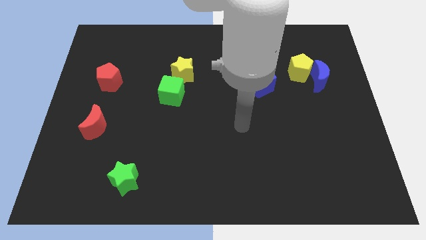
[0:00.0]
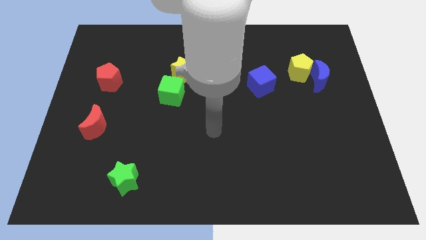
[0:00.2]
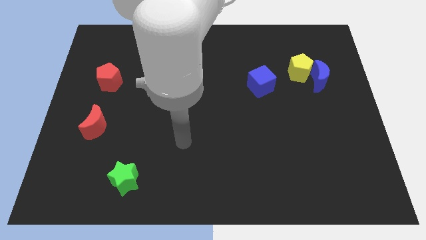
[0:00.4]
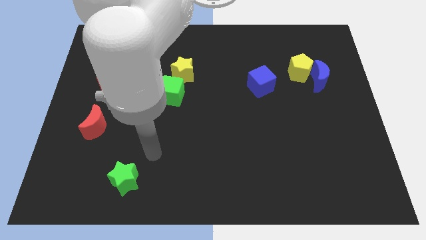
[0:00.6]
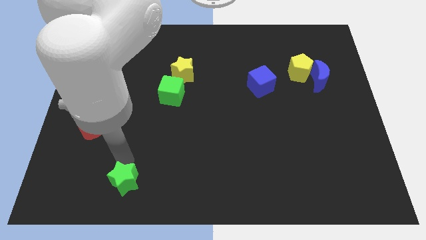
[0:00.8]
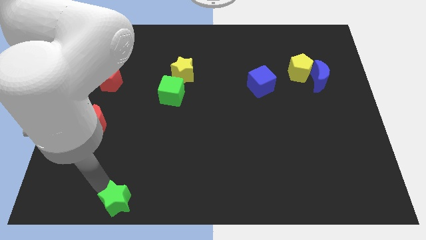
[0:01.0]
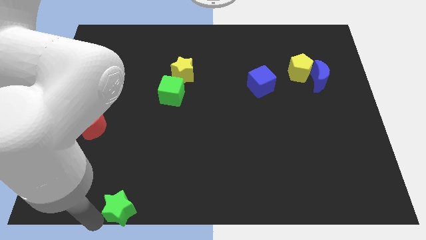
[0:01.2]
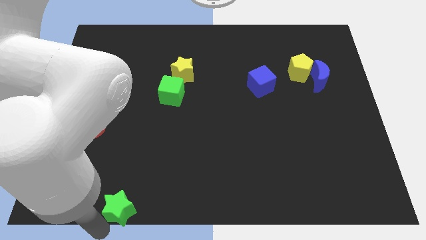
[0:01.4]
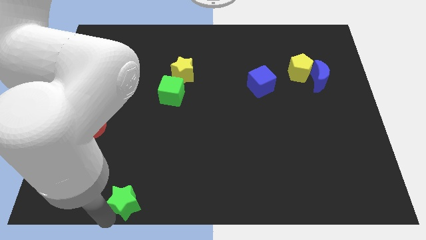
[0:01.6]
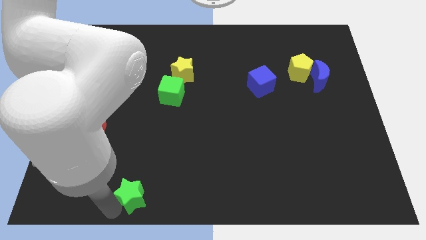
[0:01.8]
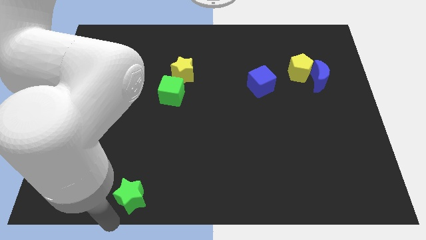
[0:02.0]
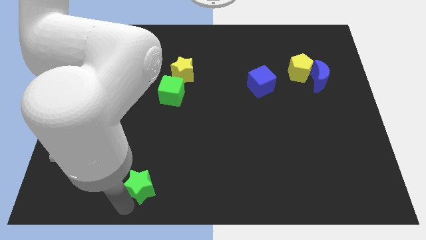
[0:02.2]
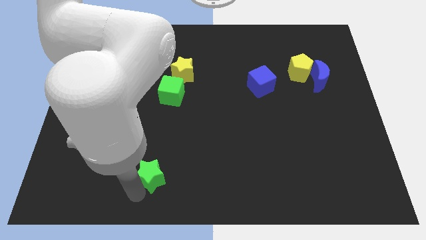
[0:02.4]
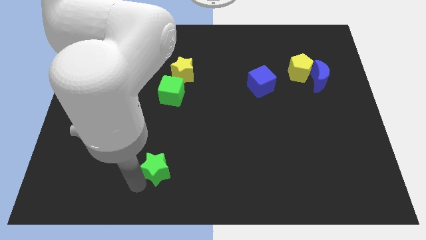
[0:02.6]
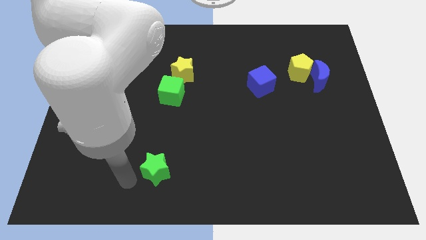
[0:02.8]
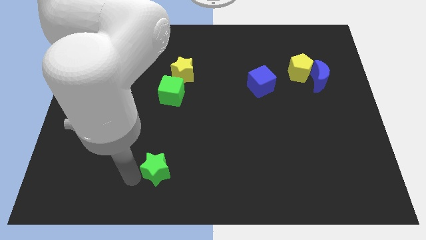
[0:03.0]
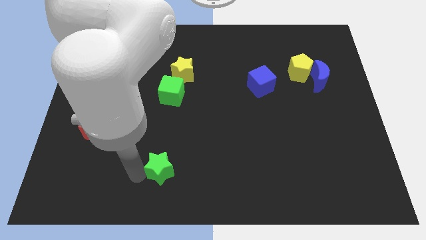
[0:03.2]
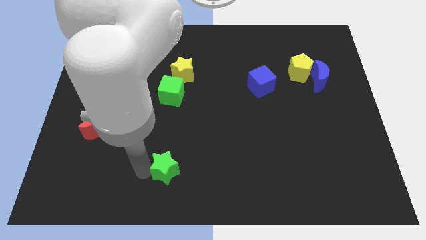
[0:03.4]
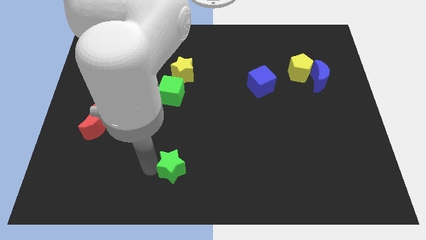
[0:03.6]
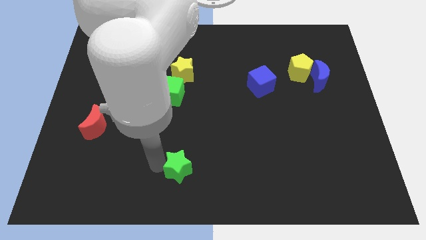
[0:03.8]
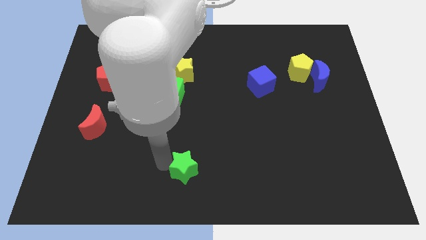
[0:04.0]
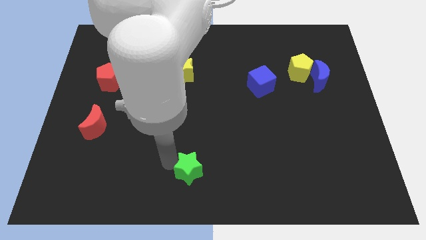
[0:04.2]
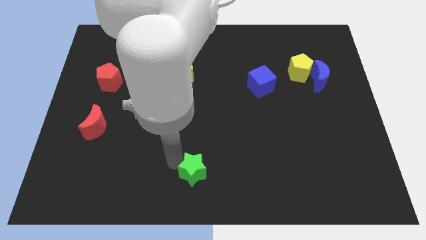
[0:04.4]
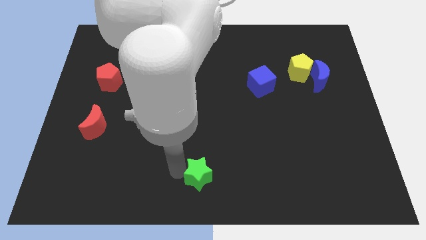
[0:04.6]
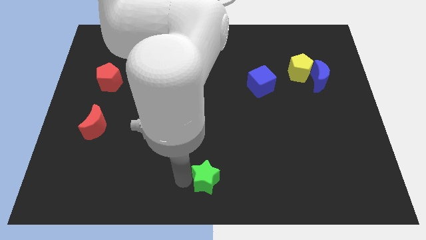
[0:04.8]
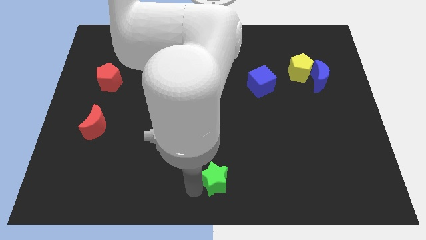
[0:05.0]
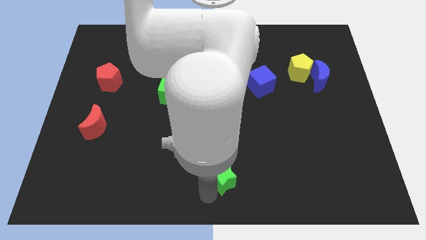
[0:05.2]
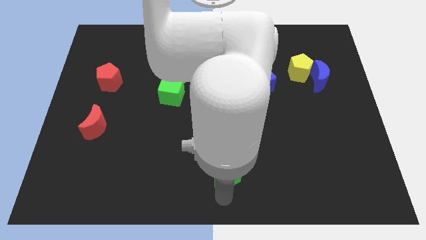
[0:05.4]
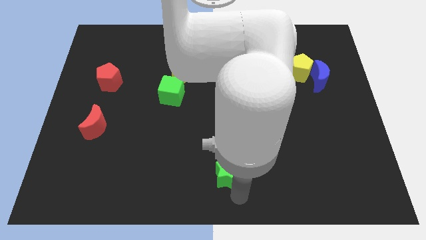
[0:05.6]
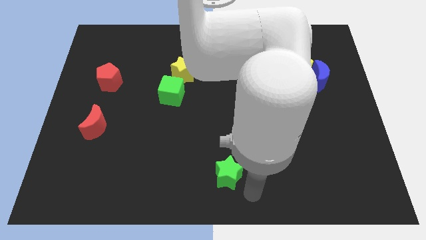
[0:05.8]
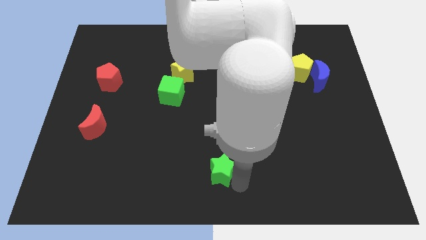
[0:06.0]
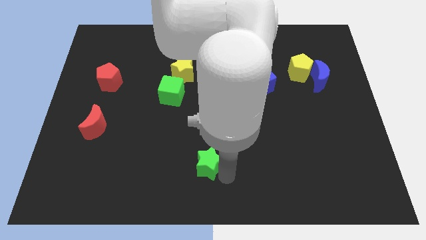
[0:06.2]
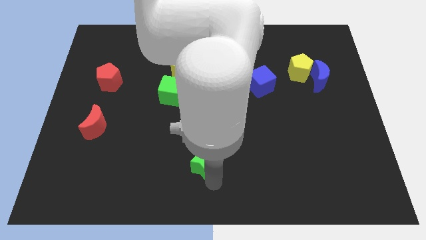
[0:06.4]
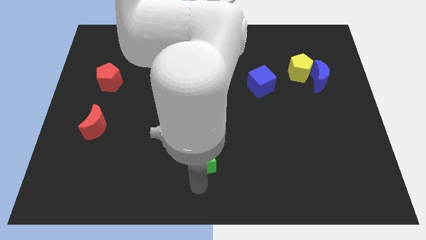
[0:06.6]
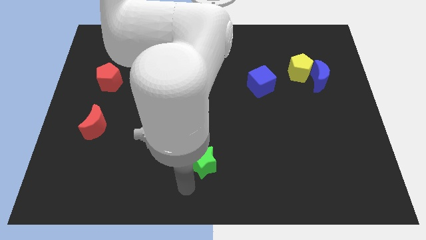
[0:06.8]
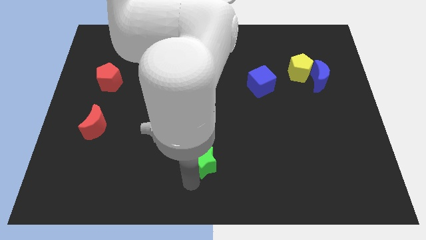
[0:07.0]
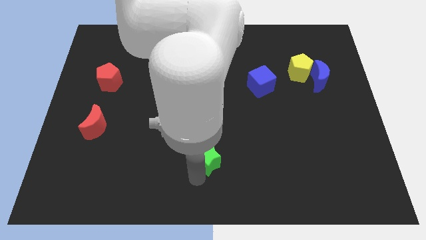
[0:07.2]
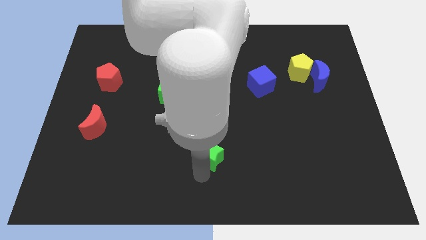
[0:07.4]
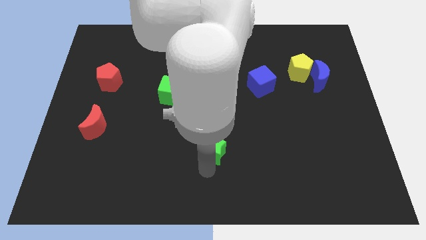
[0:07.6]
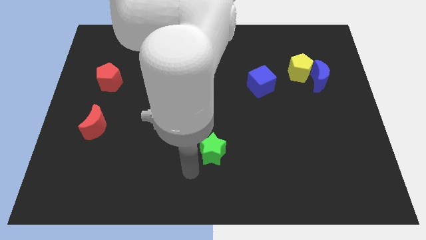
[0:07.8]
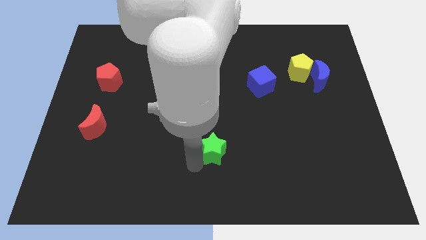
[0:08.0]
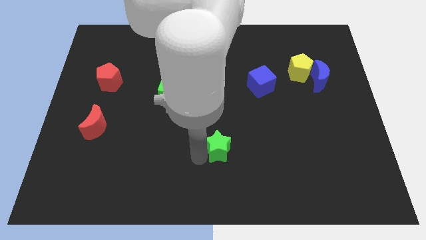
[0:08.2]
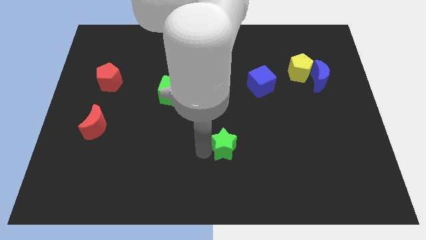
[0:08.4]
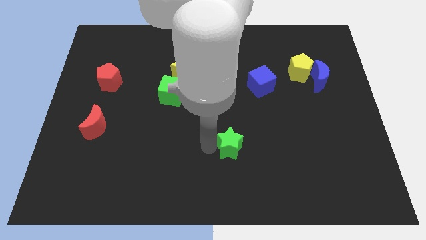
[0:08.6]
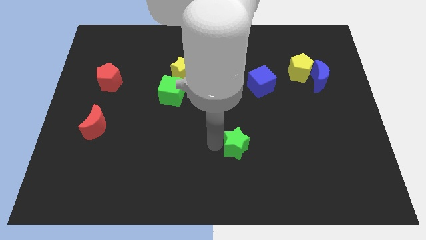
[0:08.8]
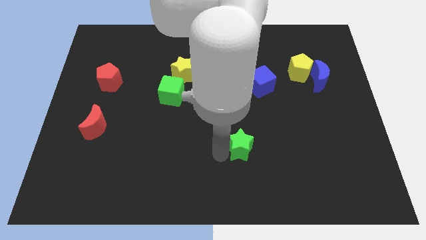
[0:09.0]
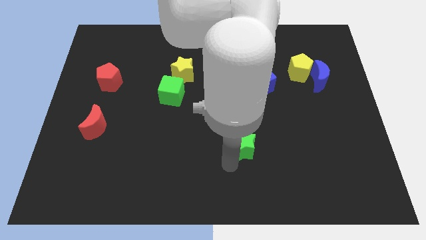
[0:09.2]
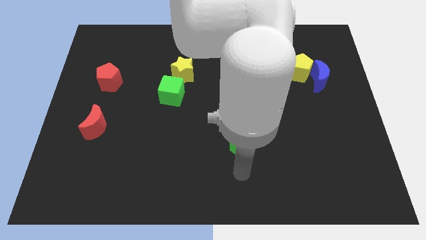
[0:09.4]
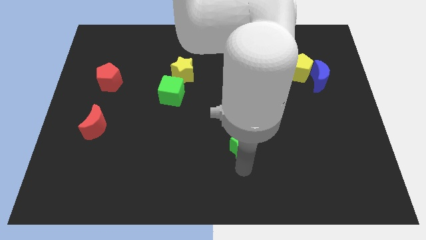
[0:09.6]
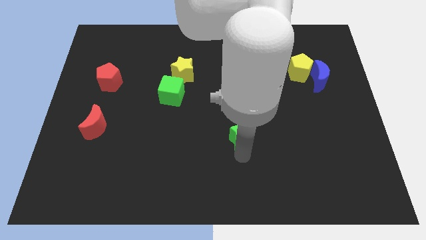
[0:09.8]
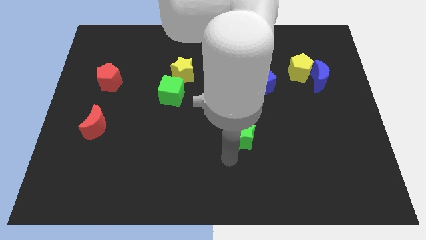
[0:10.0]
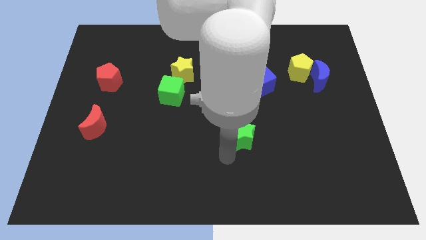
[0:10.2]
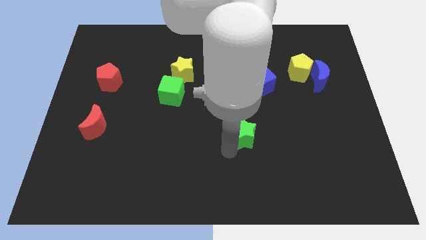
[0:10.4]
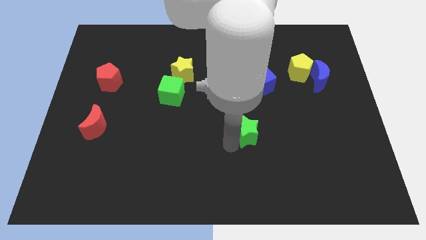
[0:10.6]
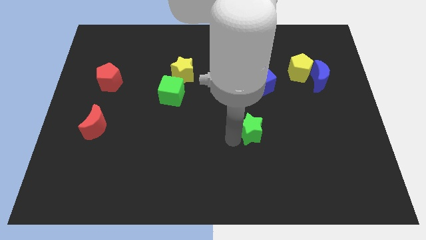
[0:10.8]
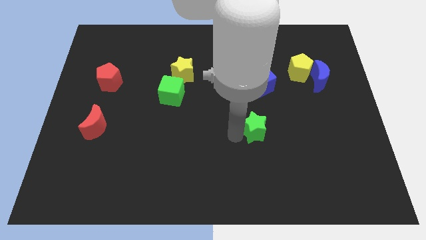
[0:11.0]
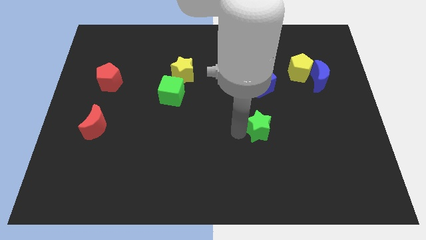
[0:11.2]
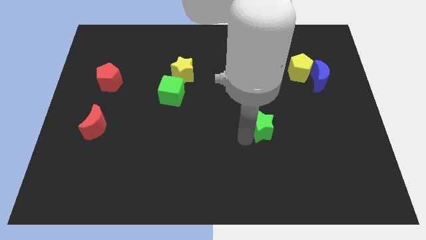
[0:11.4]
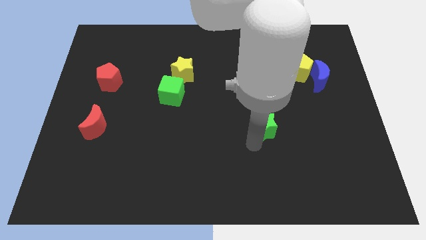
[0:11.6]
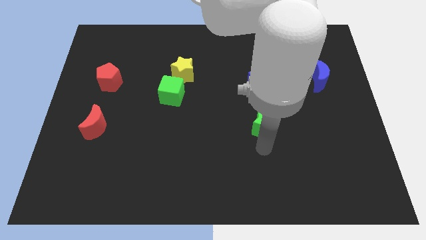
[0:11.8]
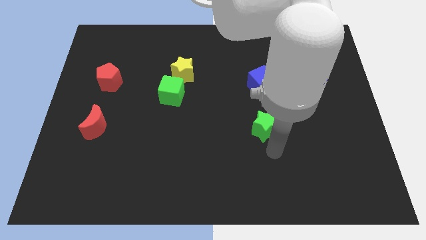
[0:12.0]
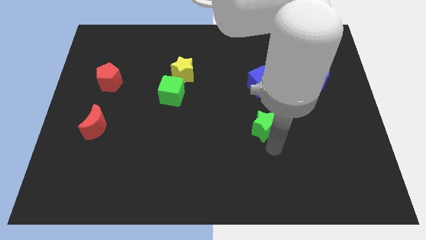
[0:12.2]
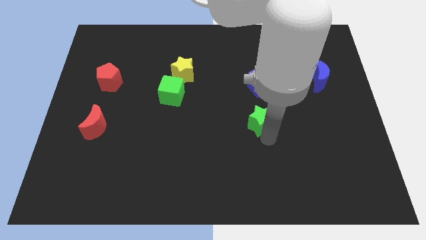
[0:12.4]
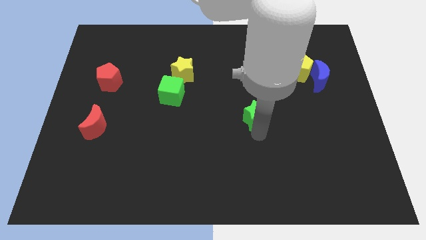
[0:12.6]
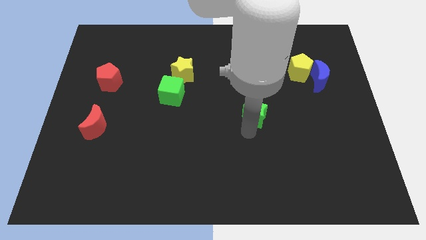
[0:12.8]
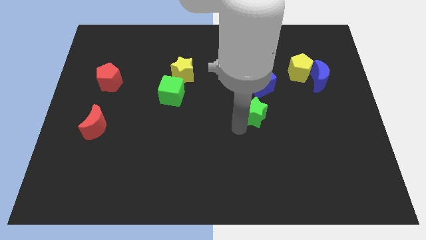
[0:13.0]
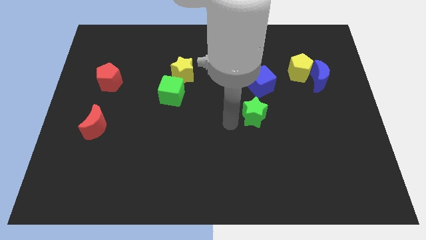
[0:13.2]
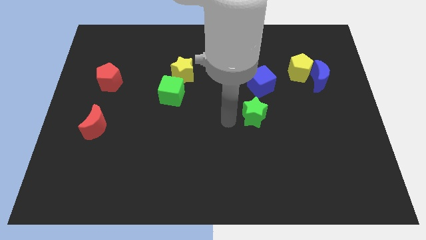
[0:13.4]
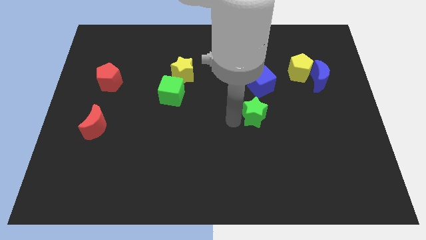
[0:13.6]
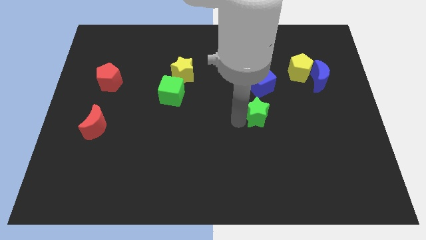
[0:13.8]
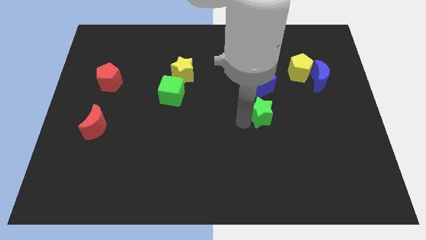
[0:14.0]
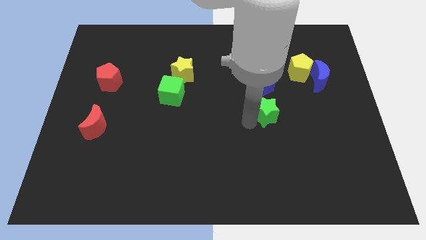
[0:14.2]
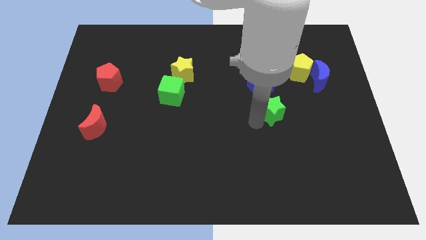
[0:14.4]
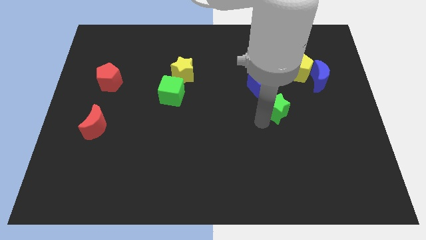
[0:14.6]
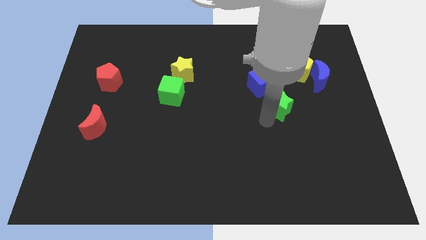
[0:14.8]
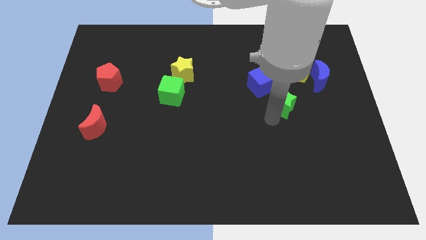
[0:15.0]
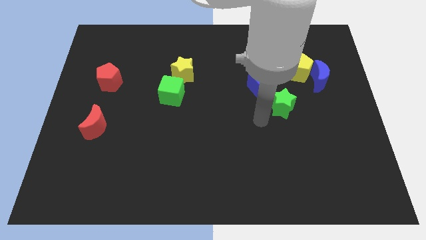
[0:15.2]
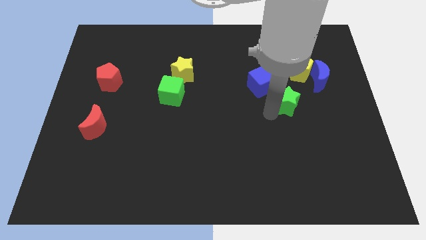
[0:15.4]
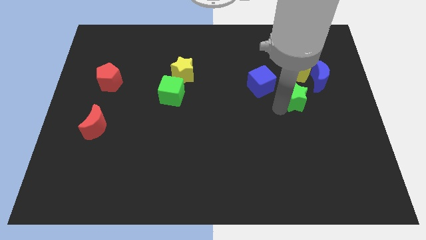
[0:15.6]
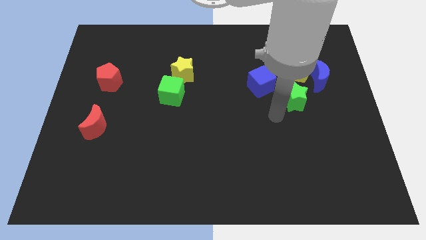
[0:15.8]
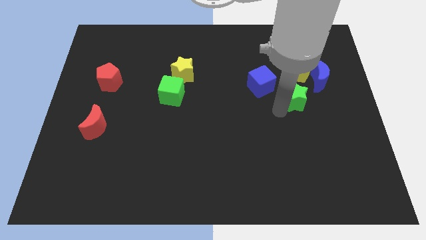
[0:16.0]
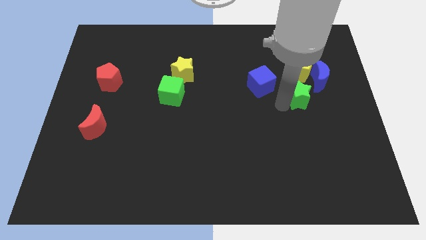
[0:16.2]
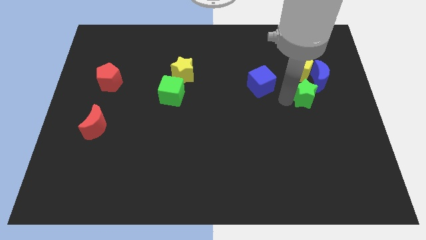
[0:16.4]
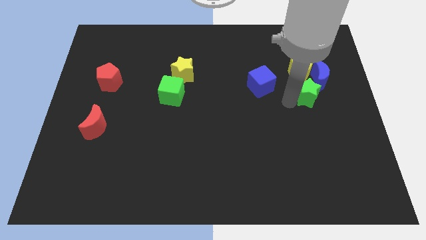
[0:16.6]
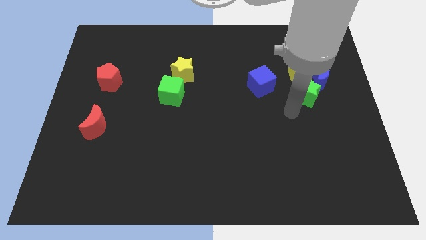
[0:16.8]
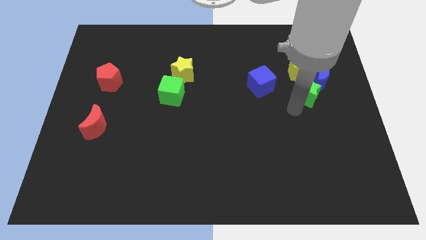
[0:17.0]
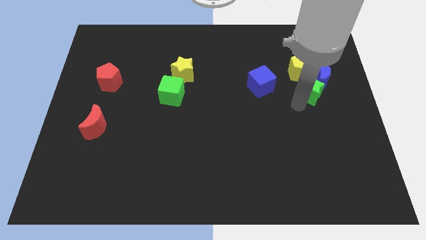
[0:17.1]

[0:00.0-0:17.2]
slide the green star to the blue moon
